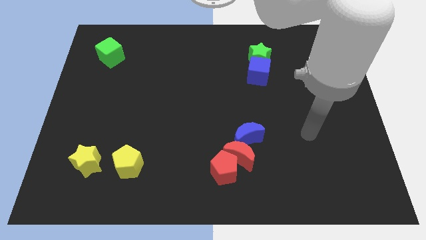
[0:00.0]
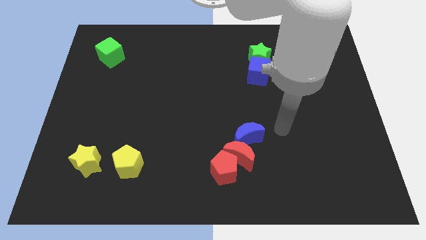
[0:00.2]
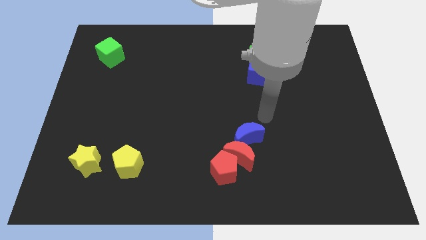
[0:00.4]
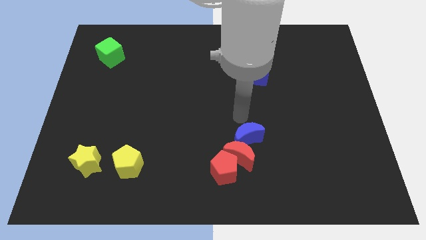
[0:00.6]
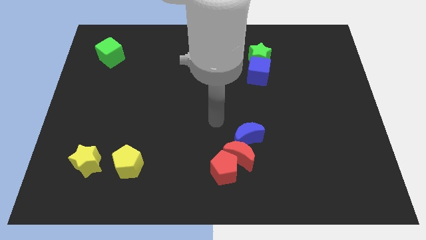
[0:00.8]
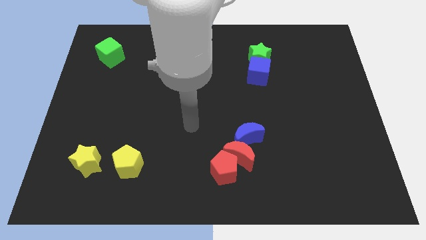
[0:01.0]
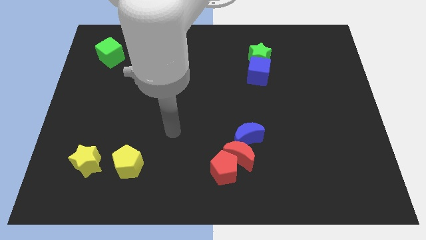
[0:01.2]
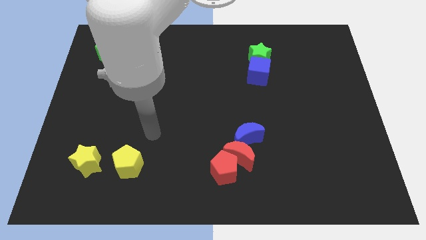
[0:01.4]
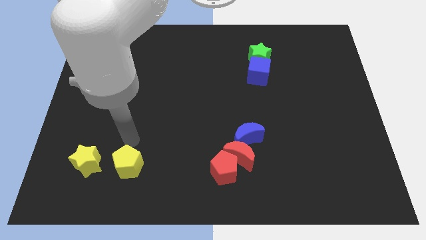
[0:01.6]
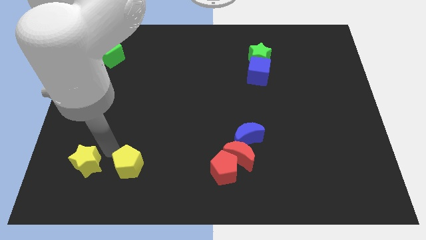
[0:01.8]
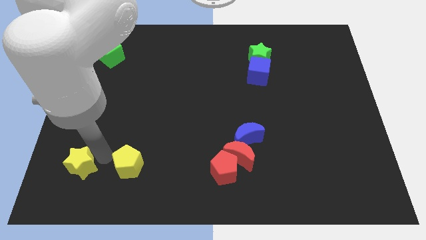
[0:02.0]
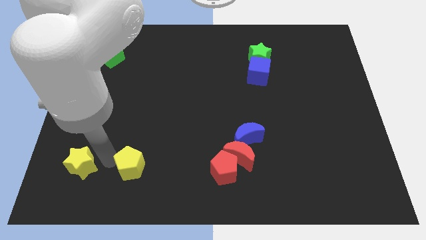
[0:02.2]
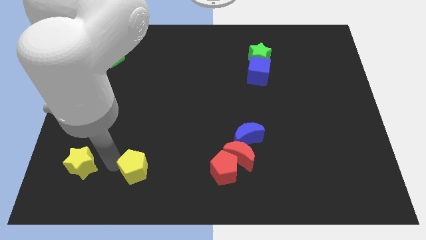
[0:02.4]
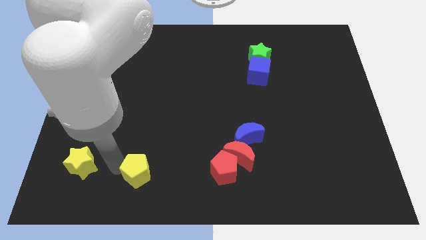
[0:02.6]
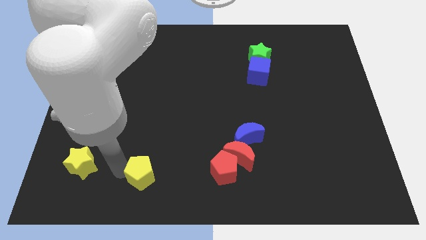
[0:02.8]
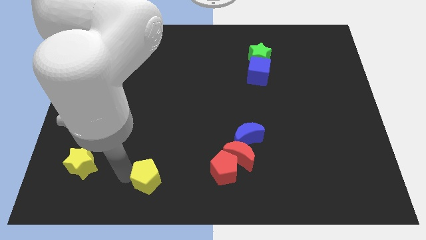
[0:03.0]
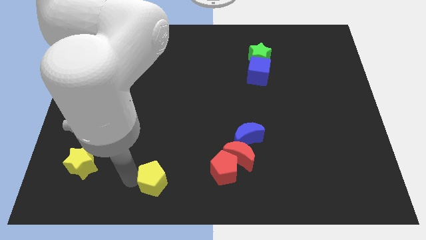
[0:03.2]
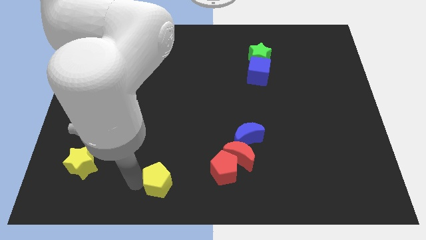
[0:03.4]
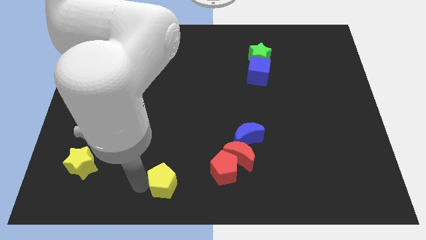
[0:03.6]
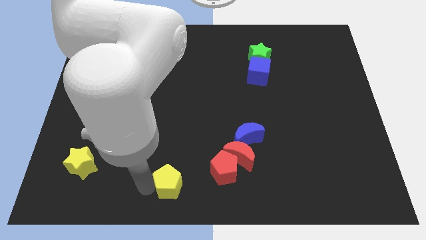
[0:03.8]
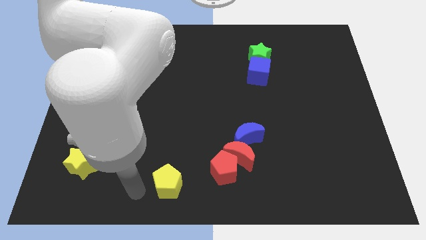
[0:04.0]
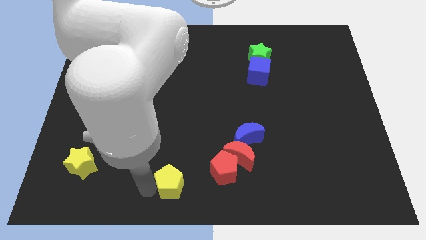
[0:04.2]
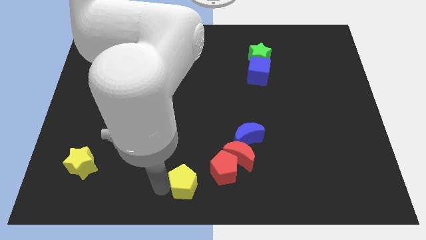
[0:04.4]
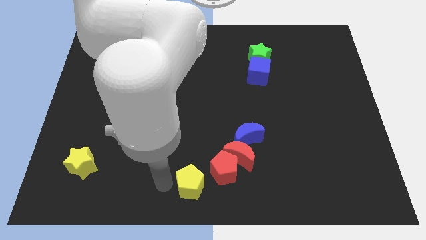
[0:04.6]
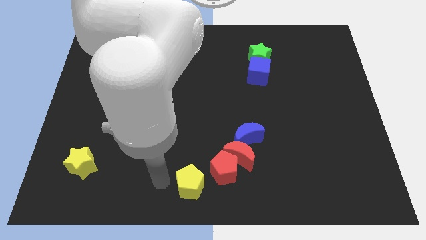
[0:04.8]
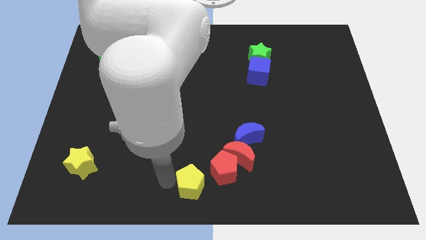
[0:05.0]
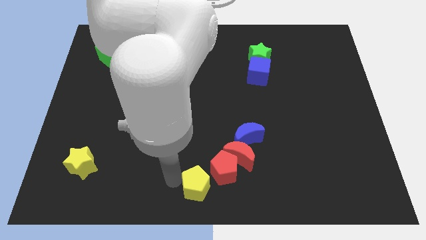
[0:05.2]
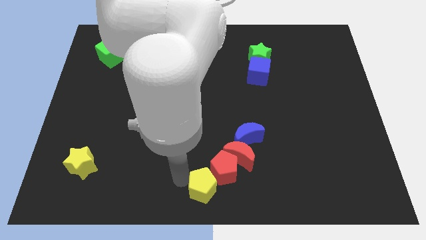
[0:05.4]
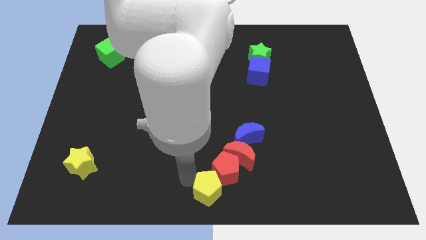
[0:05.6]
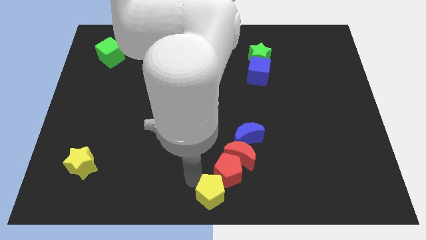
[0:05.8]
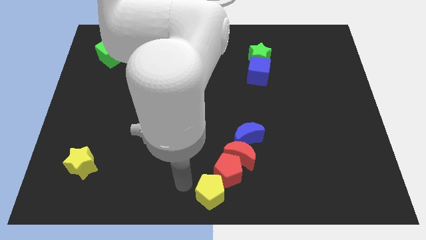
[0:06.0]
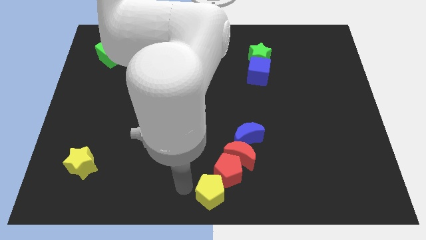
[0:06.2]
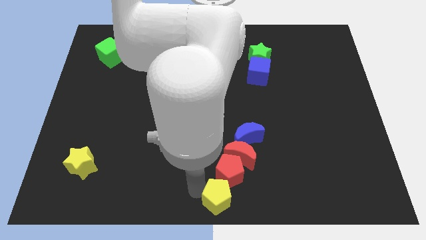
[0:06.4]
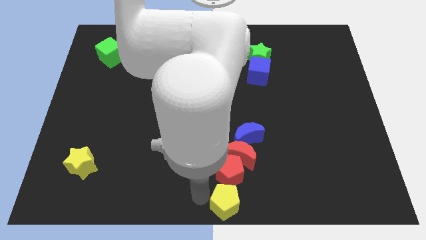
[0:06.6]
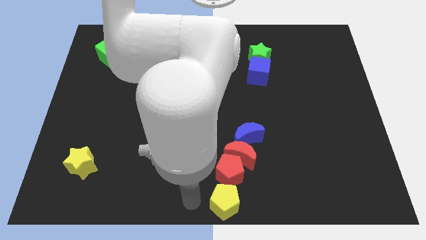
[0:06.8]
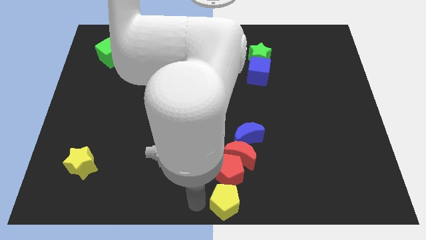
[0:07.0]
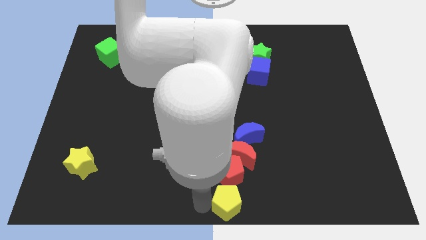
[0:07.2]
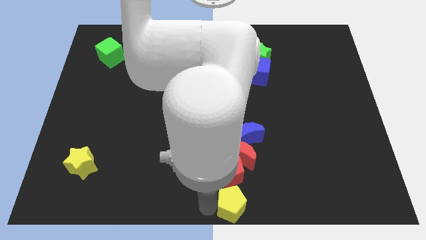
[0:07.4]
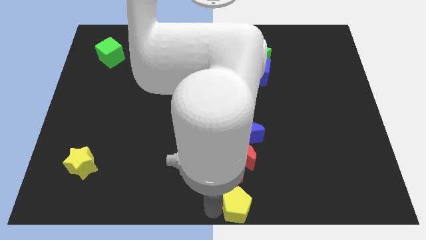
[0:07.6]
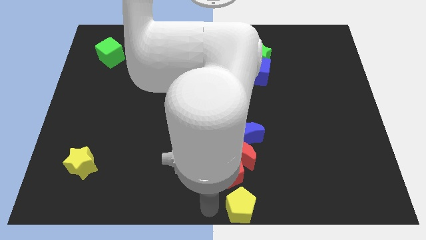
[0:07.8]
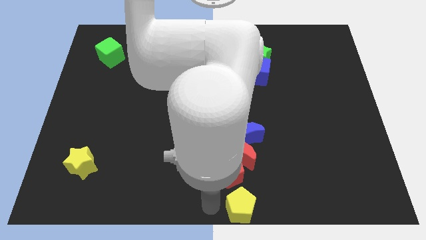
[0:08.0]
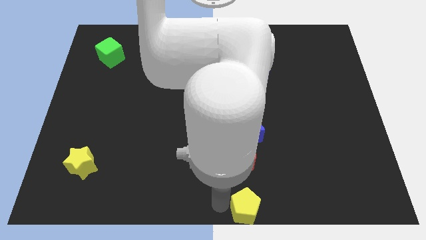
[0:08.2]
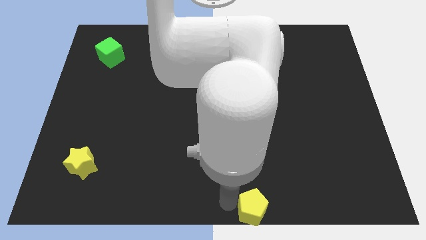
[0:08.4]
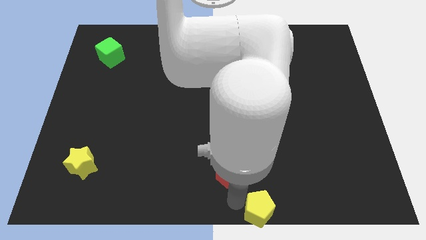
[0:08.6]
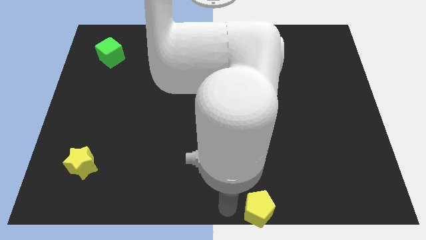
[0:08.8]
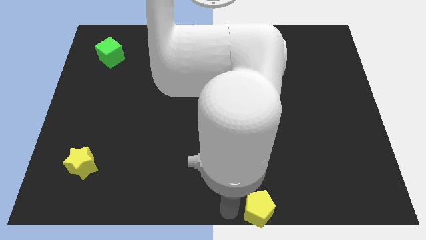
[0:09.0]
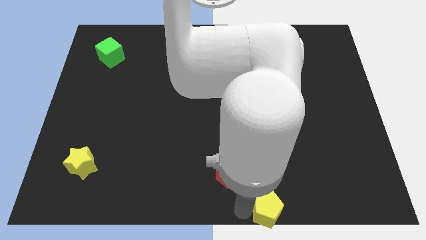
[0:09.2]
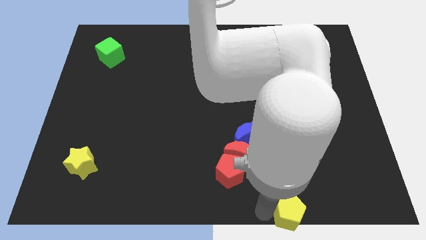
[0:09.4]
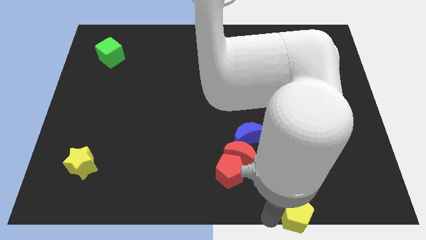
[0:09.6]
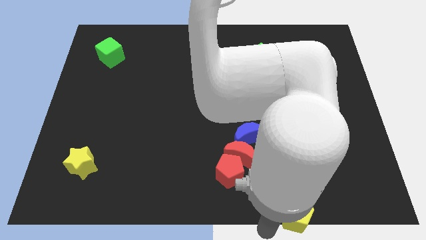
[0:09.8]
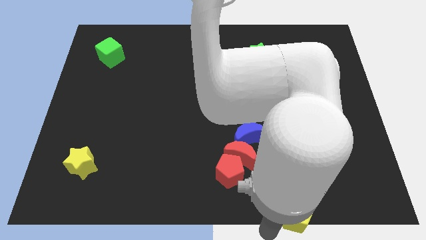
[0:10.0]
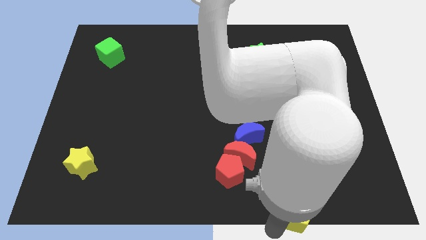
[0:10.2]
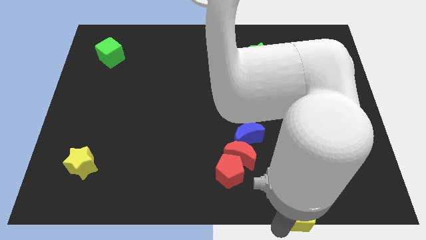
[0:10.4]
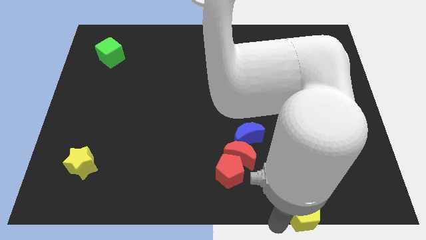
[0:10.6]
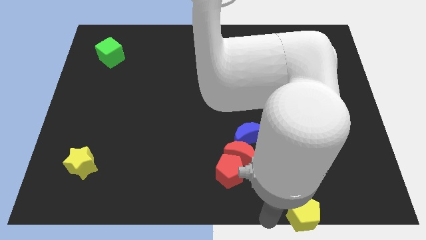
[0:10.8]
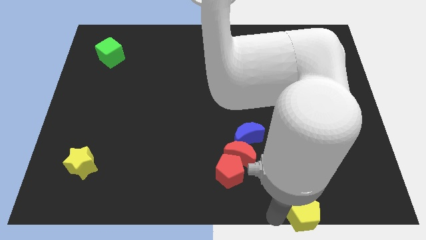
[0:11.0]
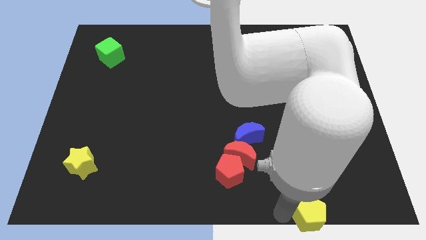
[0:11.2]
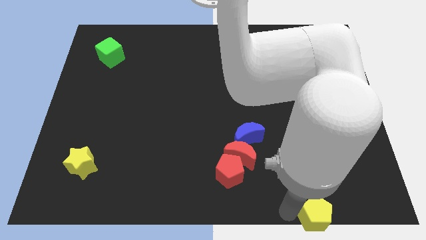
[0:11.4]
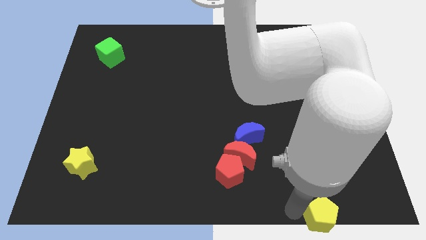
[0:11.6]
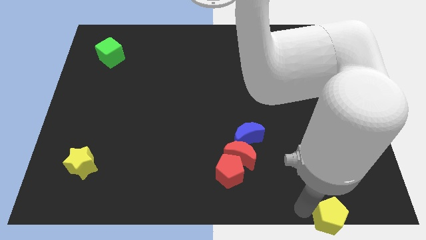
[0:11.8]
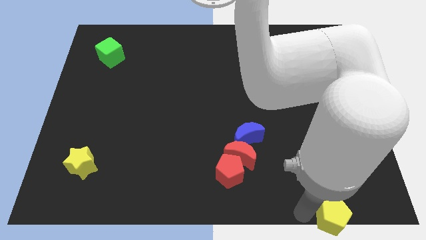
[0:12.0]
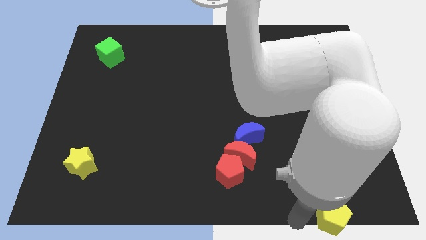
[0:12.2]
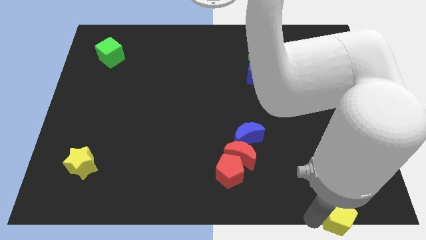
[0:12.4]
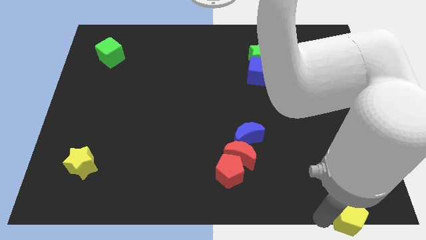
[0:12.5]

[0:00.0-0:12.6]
push the yellow pentagon to the bottom right of the board

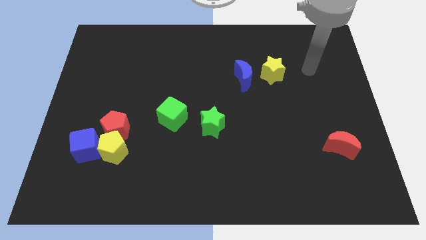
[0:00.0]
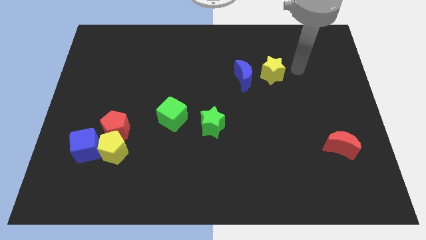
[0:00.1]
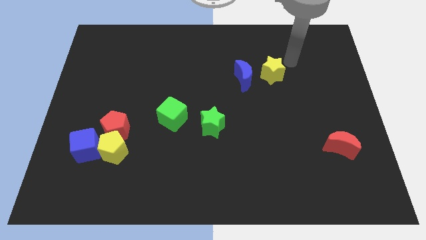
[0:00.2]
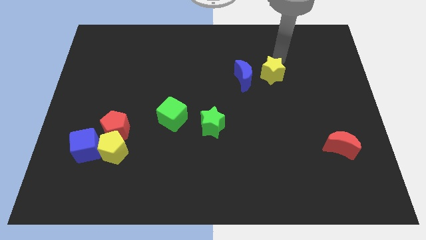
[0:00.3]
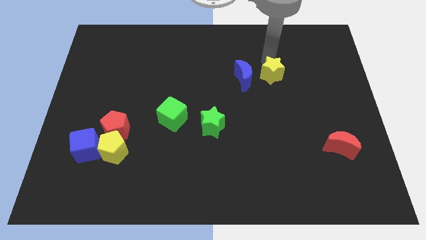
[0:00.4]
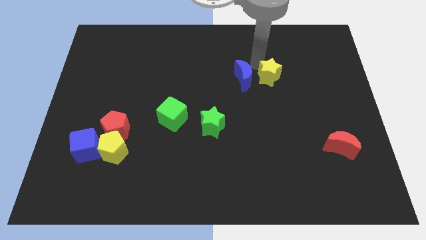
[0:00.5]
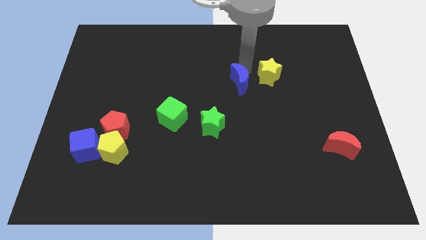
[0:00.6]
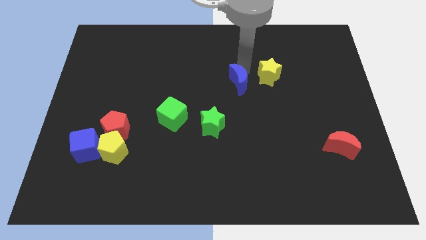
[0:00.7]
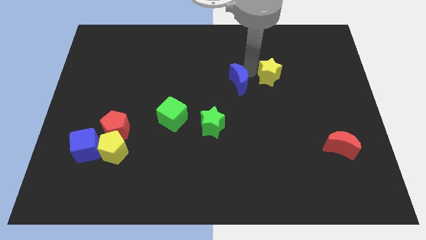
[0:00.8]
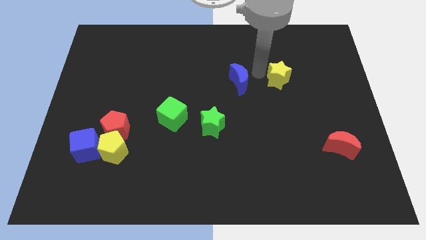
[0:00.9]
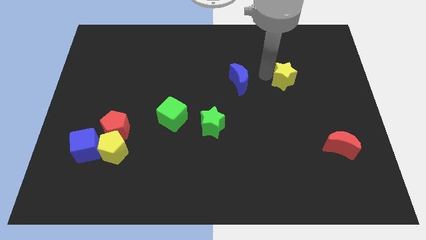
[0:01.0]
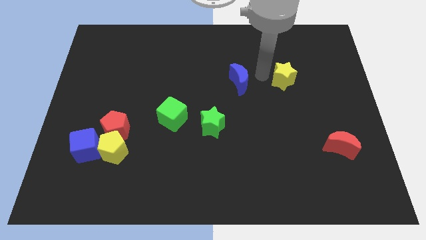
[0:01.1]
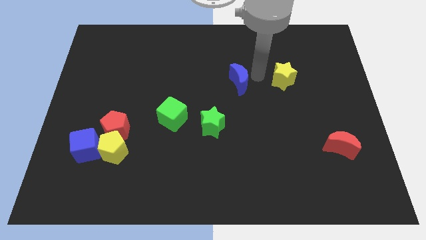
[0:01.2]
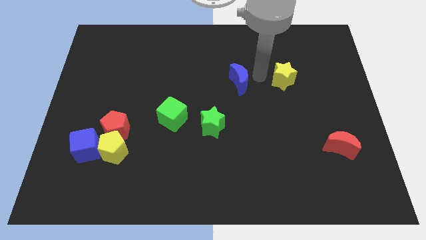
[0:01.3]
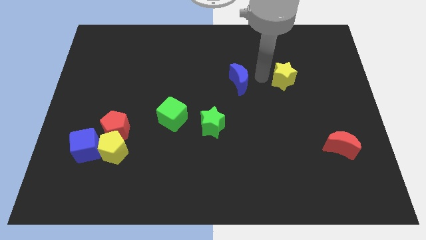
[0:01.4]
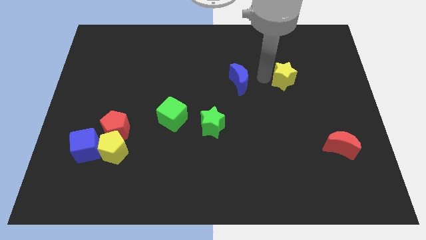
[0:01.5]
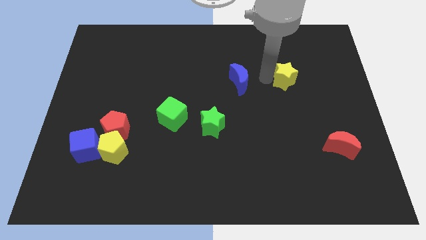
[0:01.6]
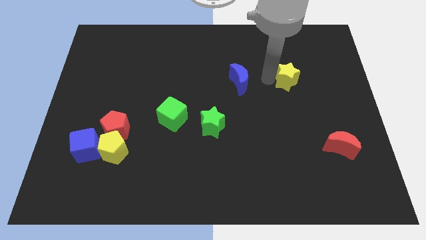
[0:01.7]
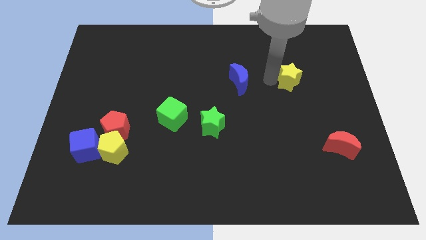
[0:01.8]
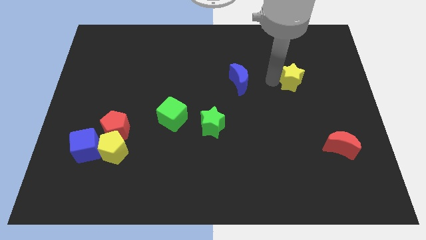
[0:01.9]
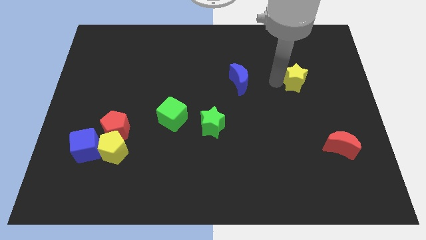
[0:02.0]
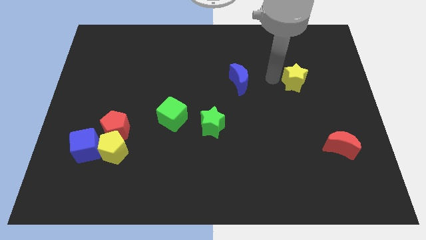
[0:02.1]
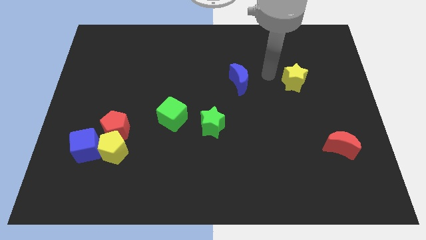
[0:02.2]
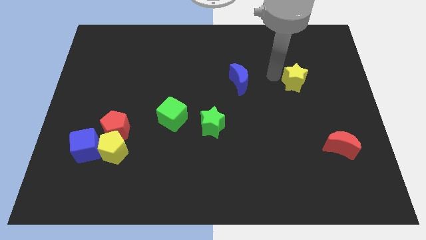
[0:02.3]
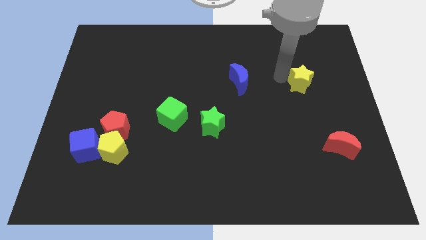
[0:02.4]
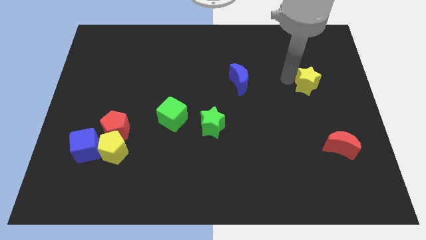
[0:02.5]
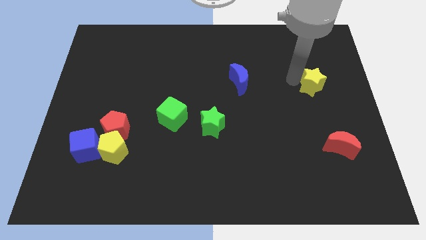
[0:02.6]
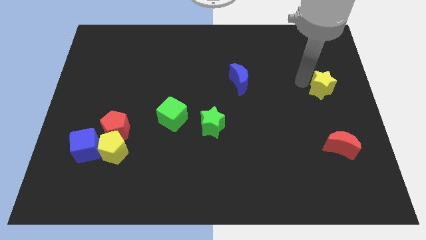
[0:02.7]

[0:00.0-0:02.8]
put the yellow star to the right side
